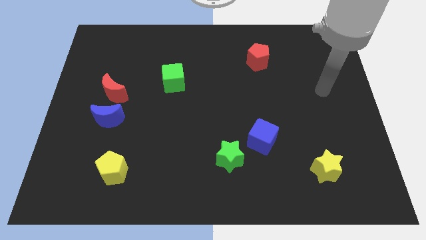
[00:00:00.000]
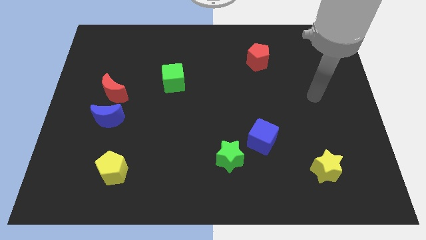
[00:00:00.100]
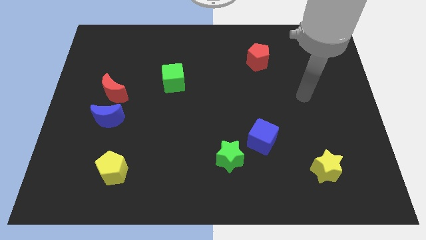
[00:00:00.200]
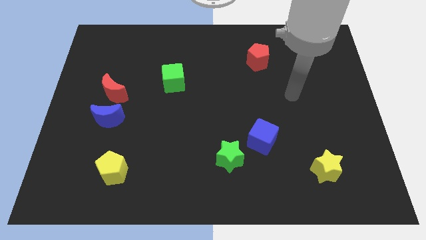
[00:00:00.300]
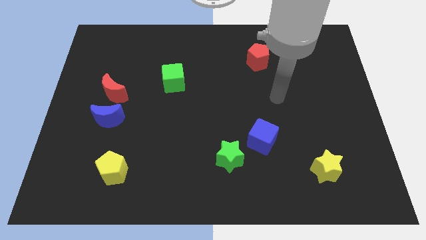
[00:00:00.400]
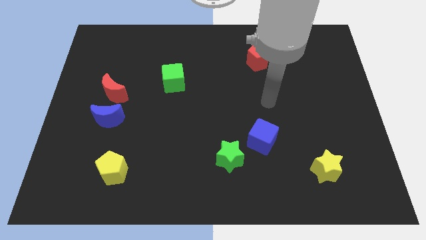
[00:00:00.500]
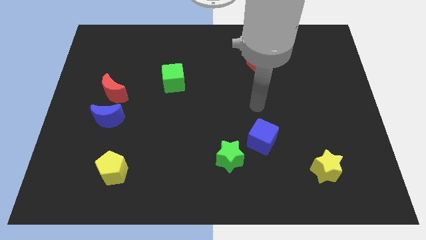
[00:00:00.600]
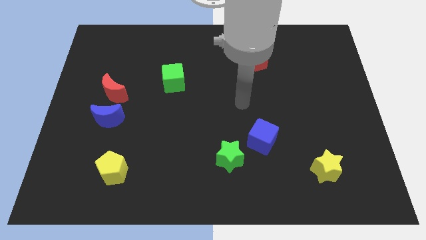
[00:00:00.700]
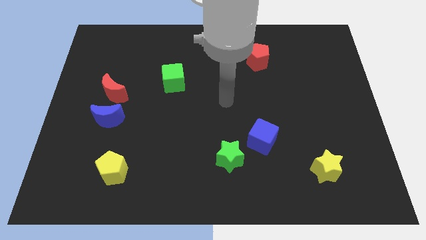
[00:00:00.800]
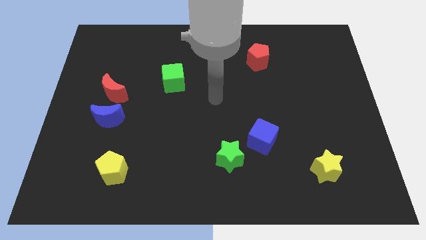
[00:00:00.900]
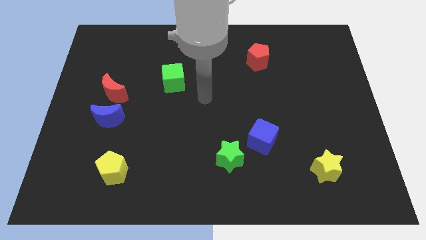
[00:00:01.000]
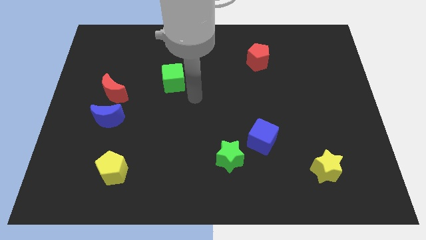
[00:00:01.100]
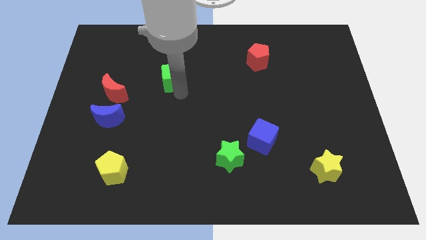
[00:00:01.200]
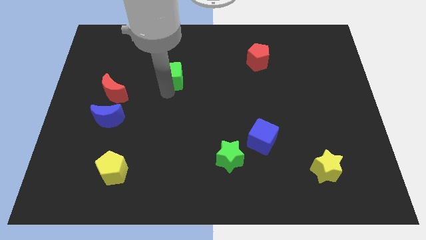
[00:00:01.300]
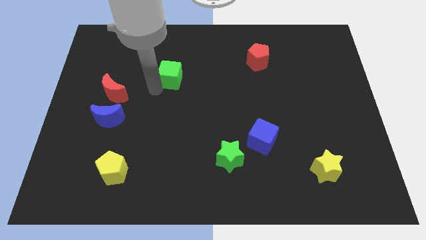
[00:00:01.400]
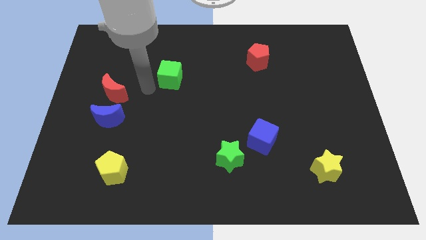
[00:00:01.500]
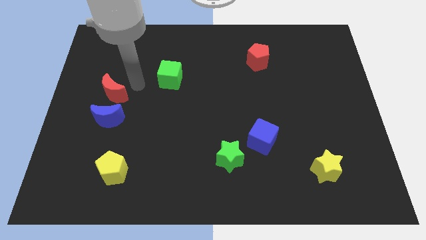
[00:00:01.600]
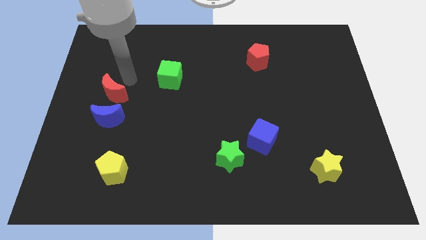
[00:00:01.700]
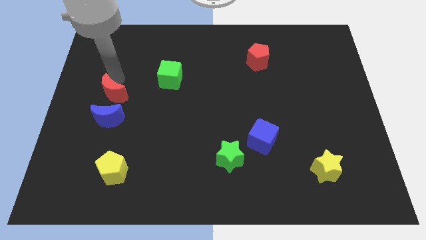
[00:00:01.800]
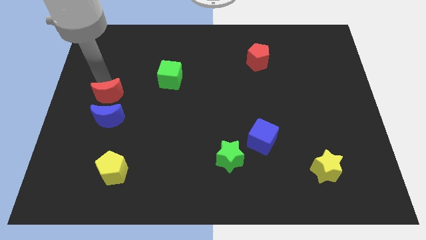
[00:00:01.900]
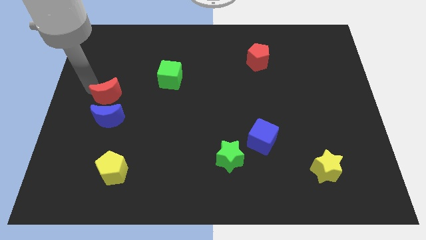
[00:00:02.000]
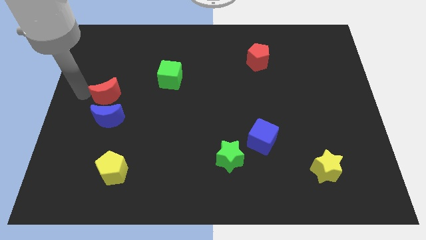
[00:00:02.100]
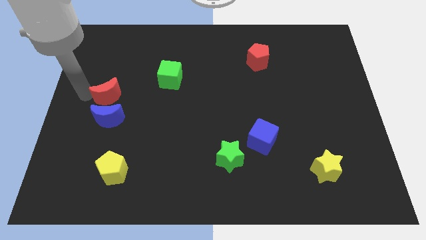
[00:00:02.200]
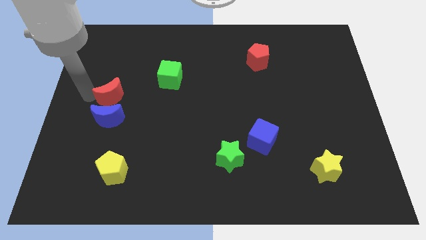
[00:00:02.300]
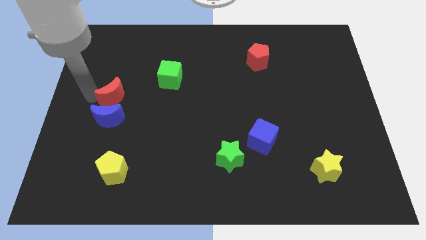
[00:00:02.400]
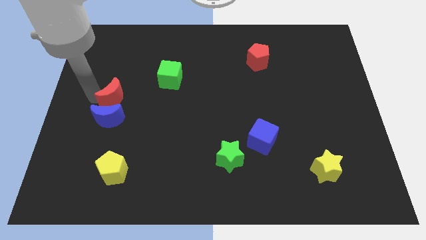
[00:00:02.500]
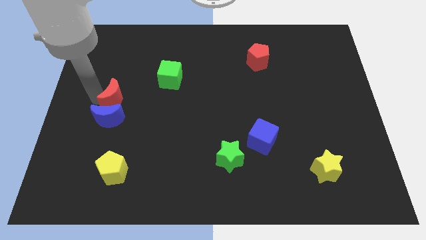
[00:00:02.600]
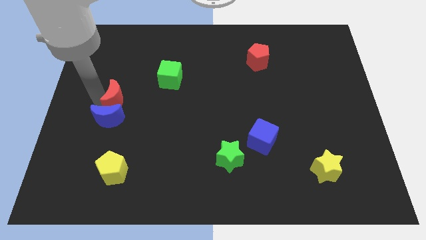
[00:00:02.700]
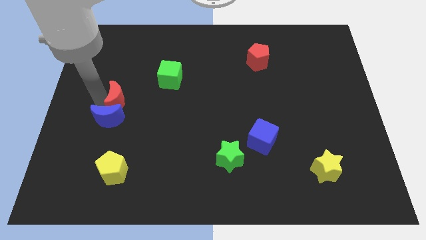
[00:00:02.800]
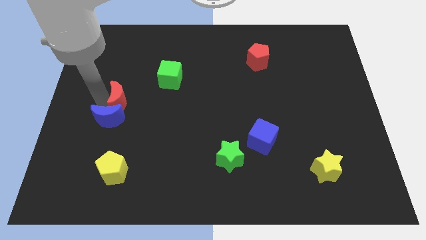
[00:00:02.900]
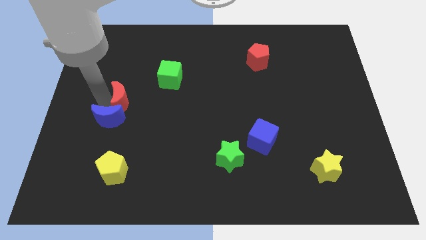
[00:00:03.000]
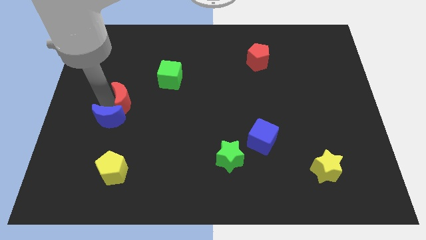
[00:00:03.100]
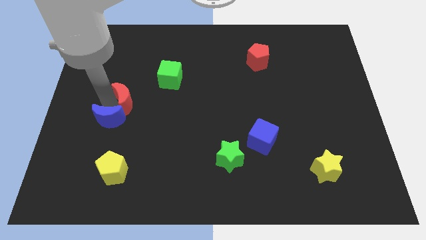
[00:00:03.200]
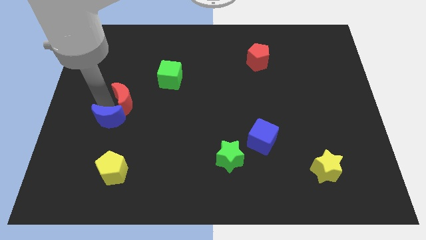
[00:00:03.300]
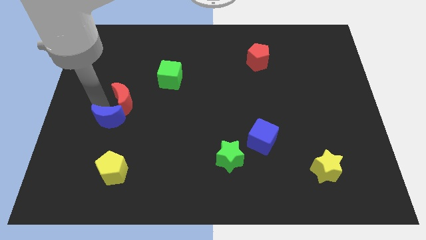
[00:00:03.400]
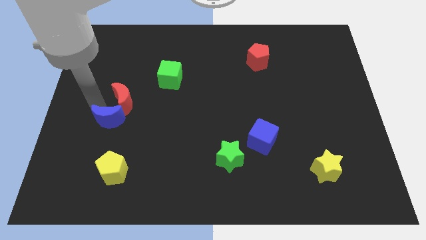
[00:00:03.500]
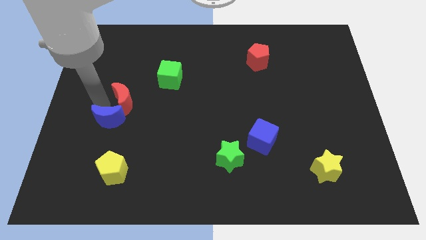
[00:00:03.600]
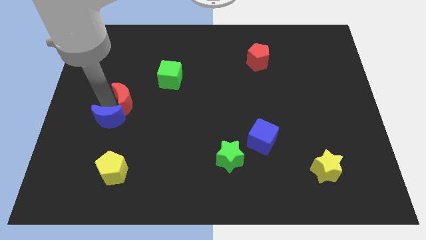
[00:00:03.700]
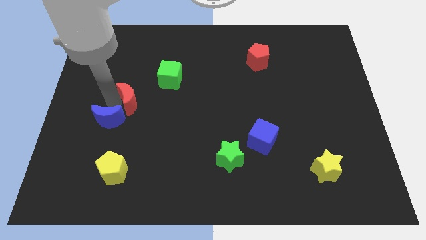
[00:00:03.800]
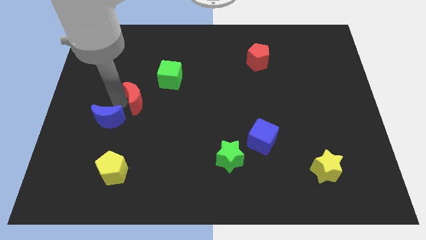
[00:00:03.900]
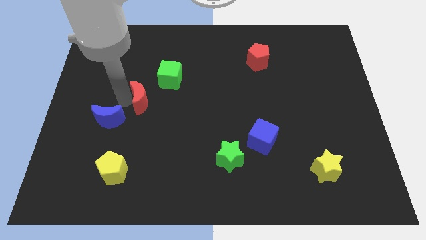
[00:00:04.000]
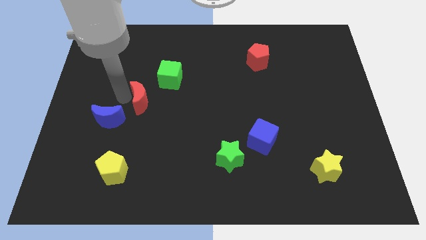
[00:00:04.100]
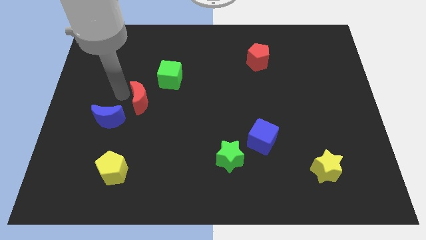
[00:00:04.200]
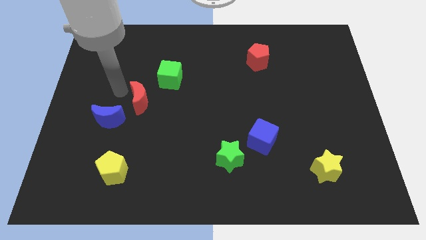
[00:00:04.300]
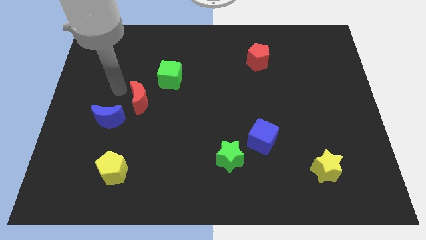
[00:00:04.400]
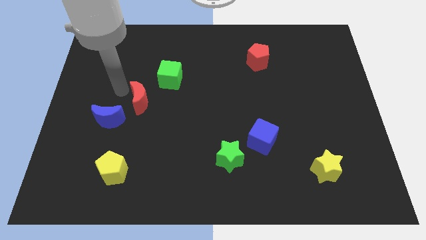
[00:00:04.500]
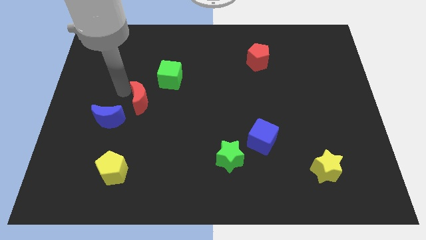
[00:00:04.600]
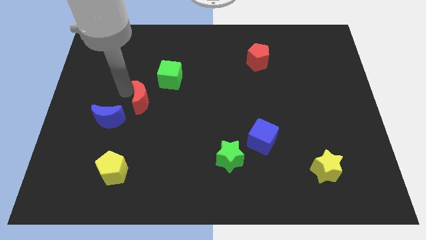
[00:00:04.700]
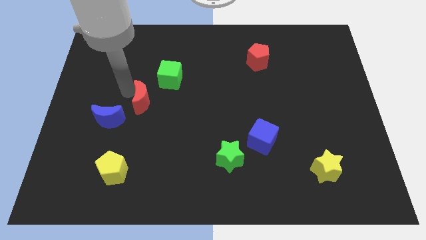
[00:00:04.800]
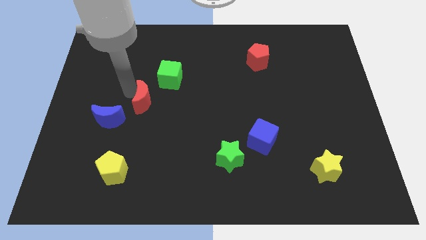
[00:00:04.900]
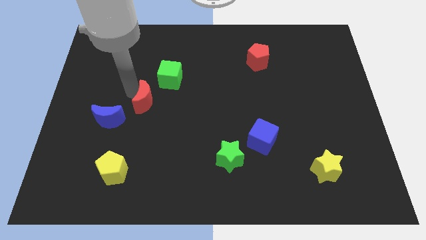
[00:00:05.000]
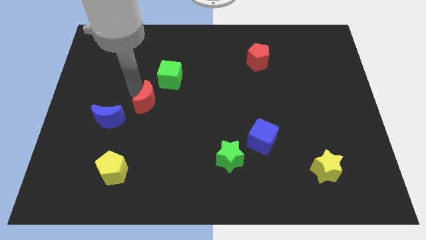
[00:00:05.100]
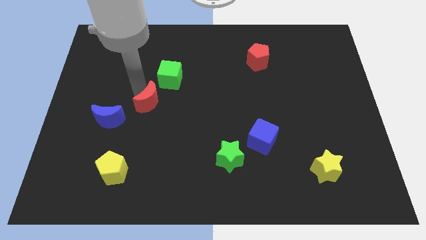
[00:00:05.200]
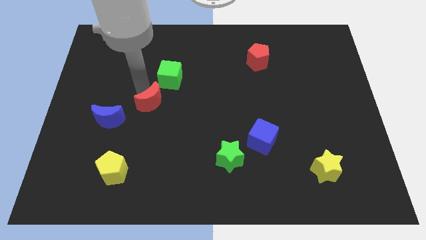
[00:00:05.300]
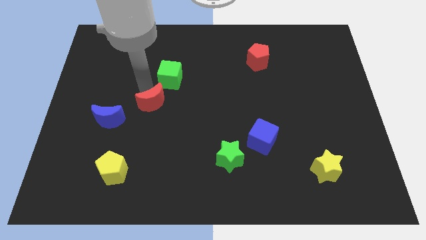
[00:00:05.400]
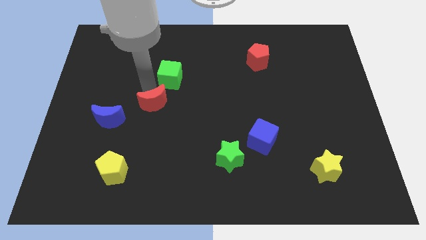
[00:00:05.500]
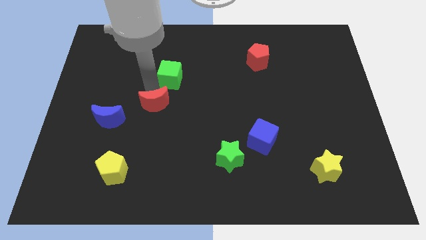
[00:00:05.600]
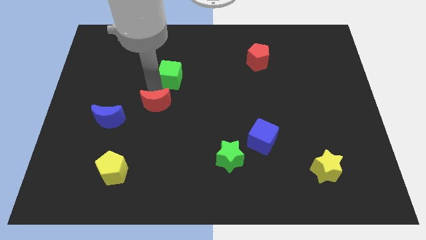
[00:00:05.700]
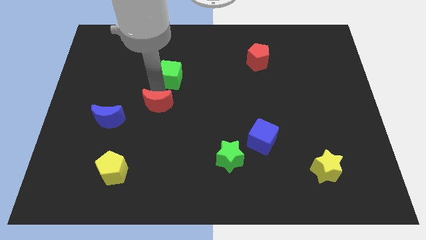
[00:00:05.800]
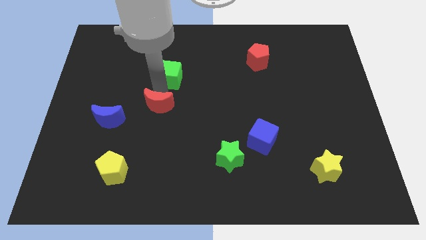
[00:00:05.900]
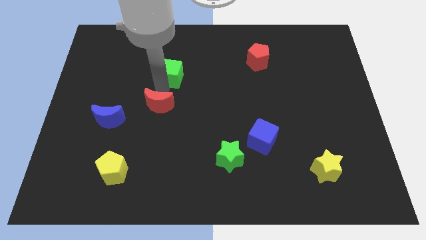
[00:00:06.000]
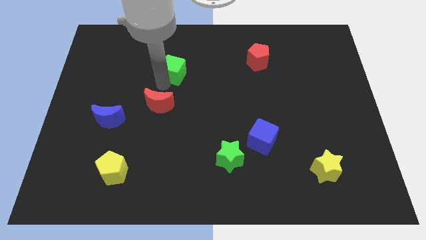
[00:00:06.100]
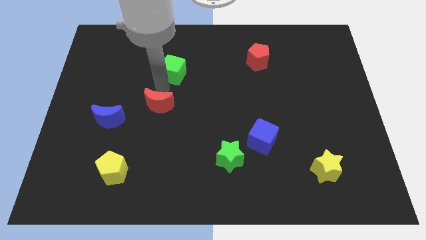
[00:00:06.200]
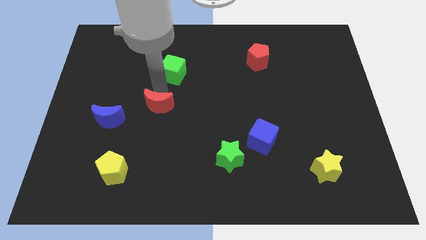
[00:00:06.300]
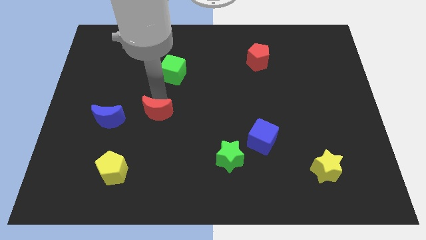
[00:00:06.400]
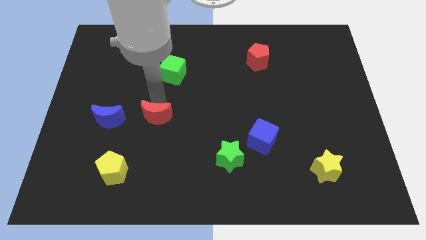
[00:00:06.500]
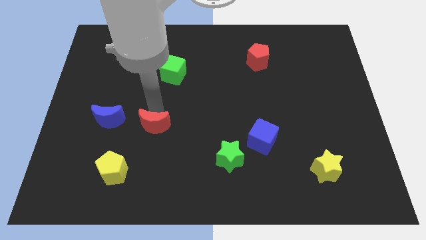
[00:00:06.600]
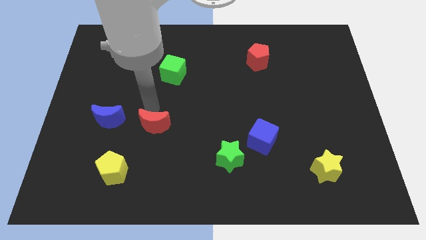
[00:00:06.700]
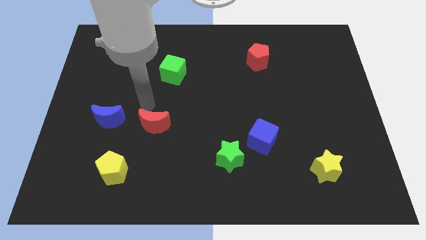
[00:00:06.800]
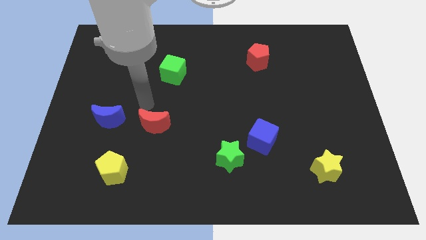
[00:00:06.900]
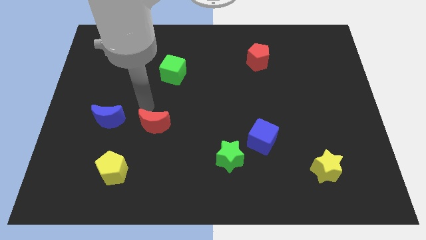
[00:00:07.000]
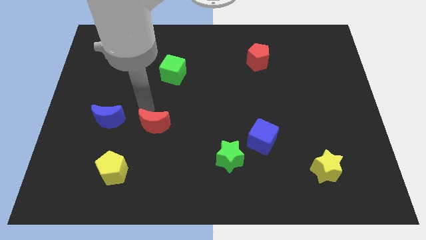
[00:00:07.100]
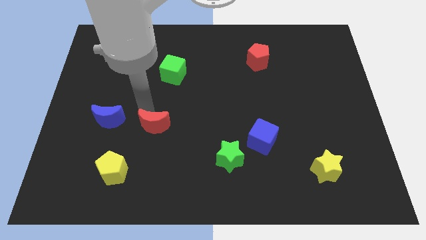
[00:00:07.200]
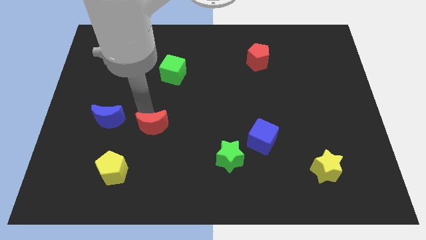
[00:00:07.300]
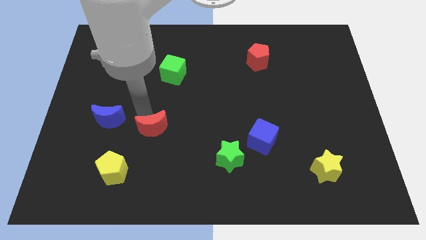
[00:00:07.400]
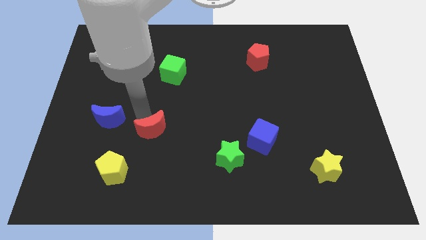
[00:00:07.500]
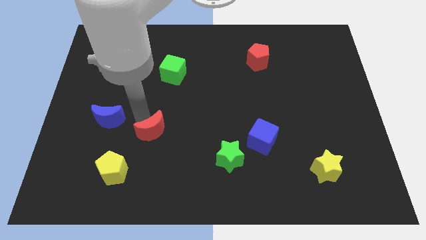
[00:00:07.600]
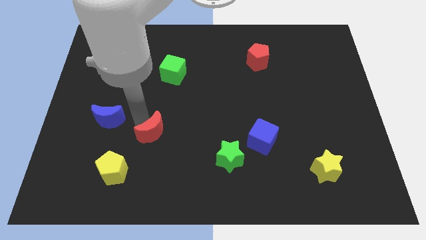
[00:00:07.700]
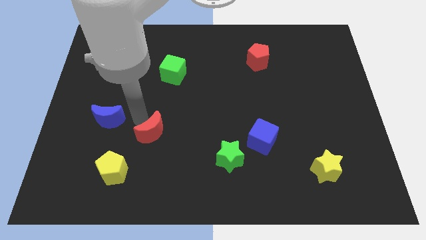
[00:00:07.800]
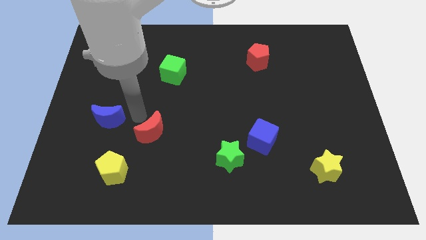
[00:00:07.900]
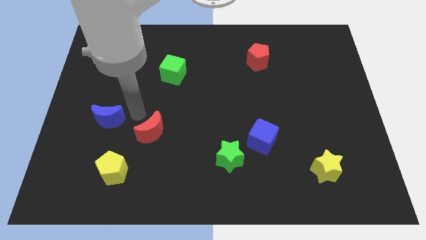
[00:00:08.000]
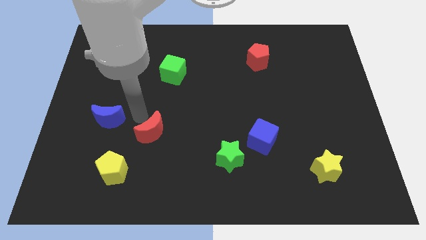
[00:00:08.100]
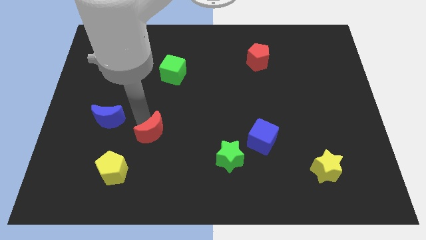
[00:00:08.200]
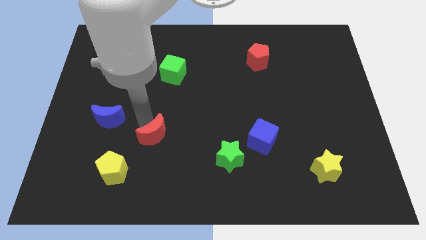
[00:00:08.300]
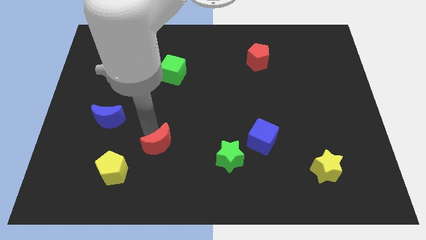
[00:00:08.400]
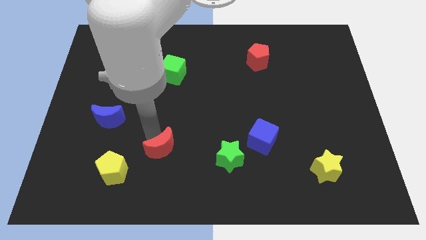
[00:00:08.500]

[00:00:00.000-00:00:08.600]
slide the red moon left of the green star
